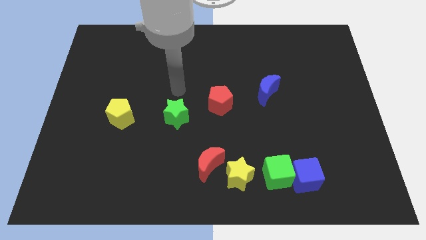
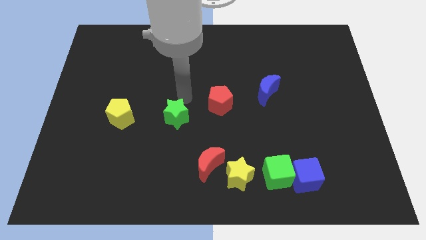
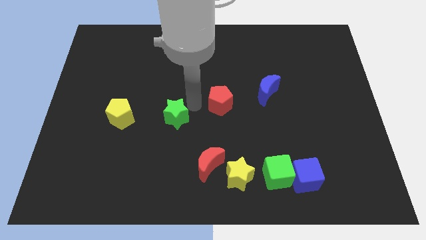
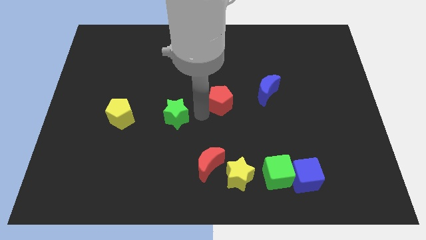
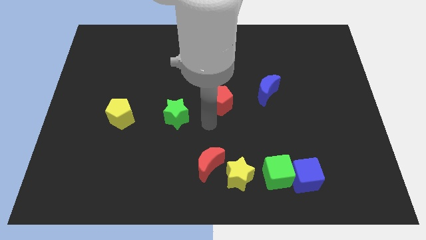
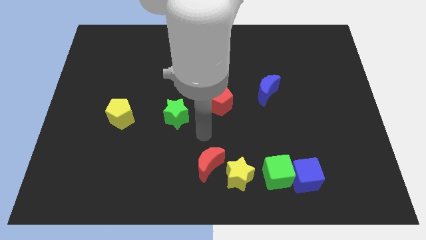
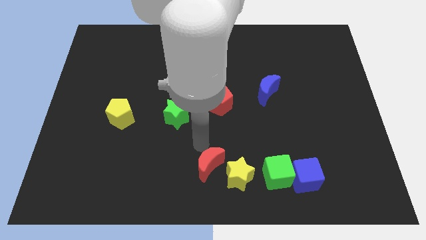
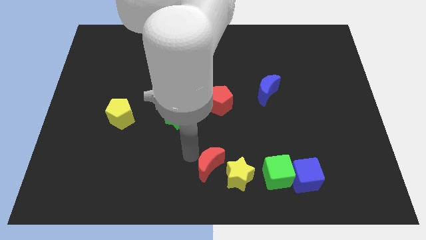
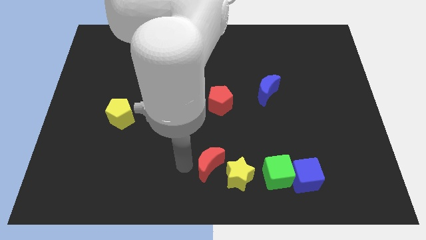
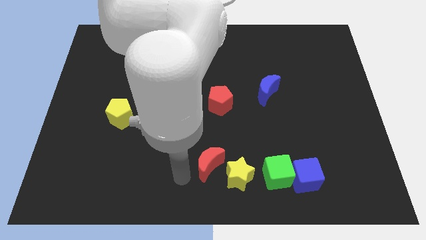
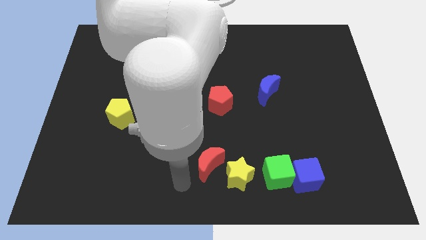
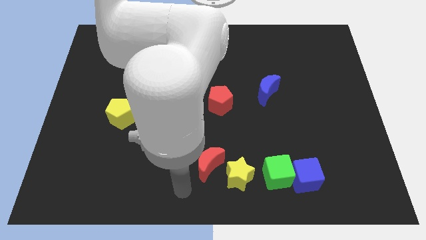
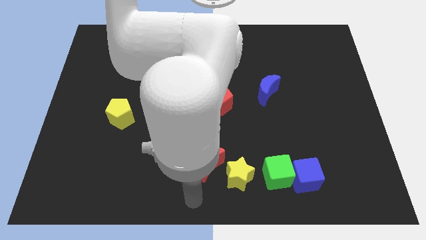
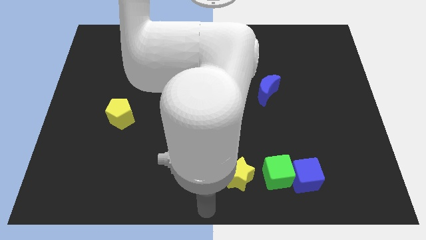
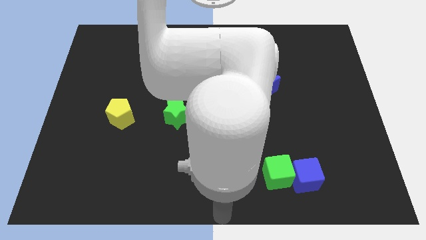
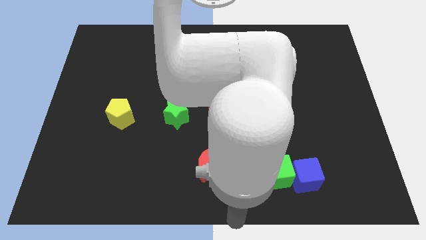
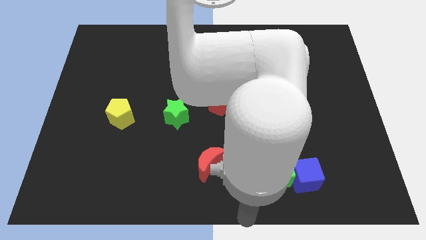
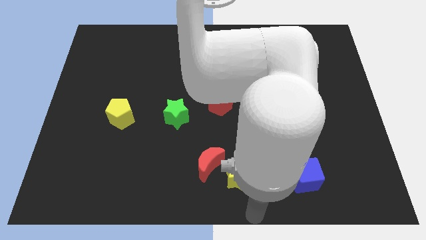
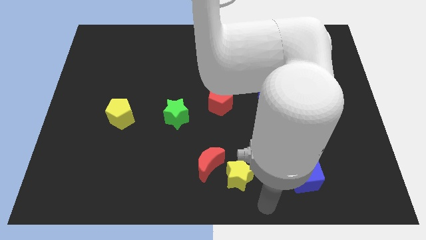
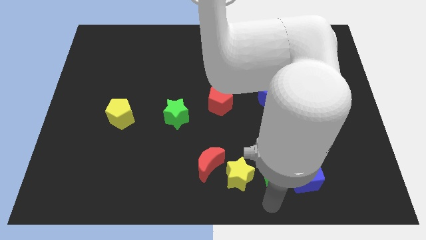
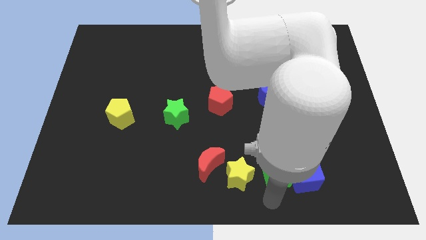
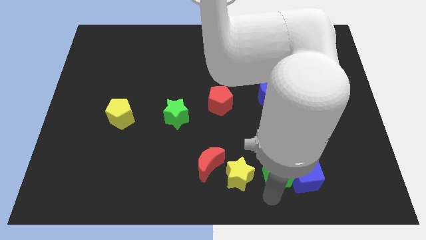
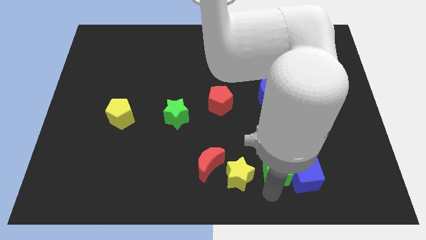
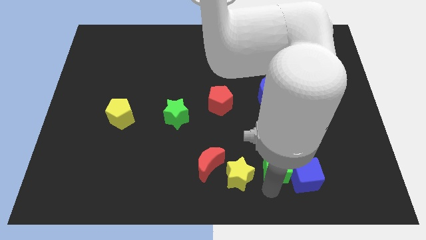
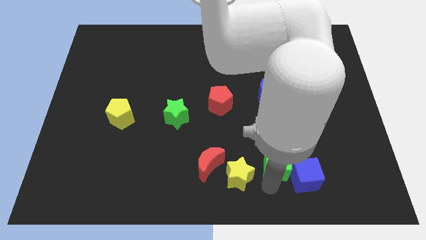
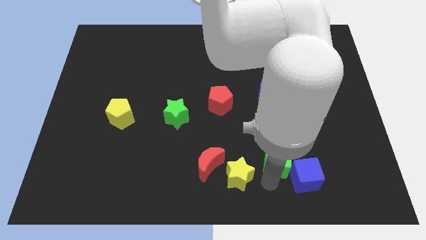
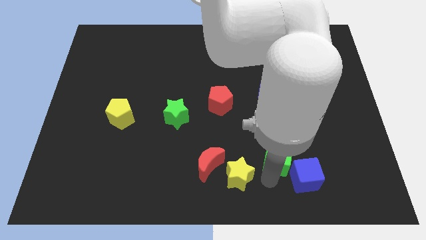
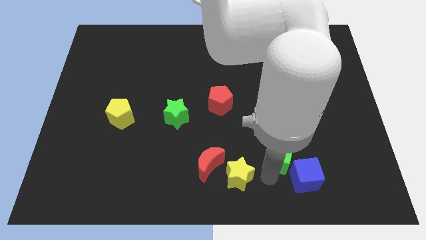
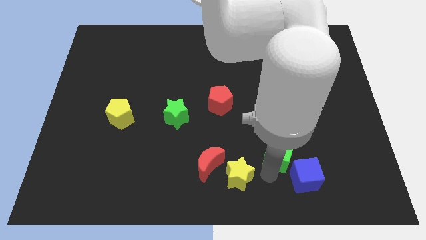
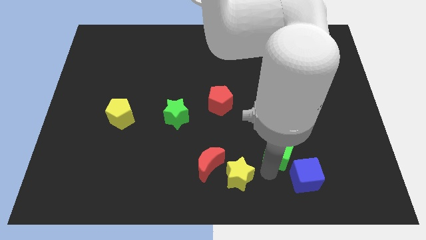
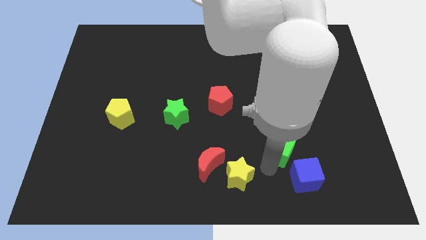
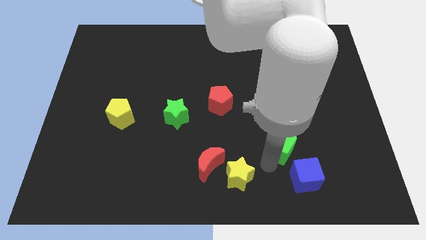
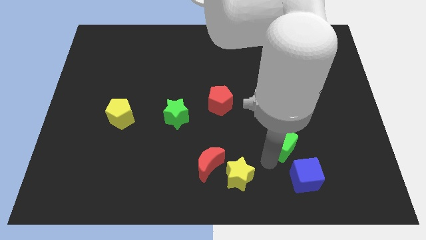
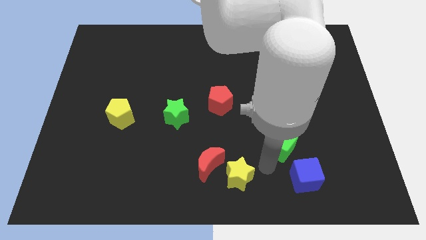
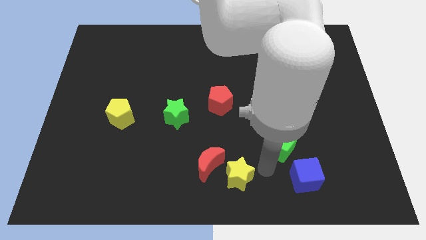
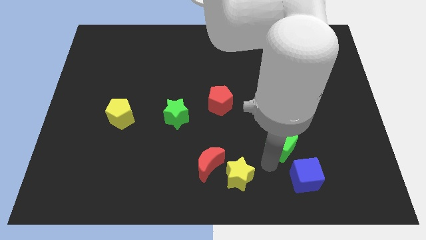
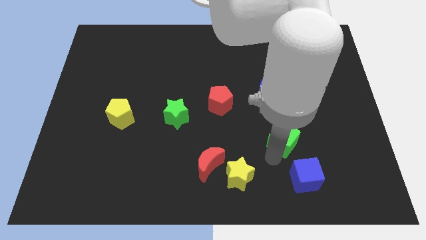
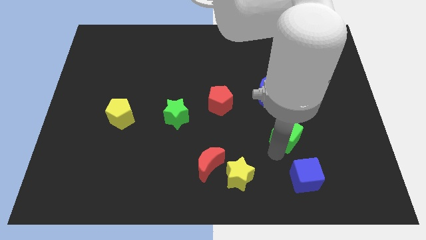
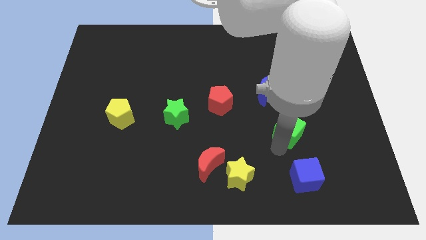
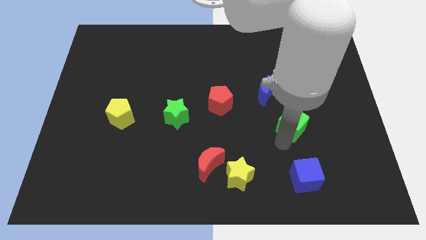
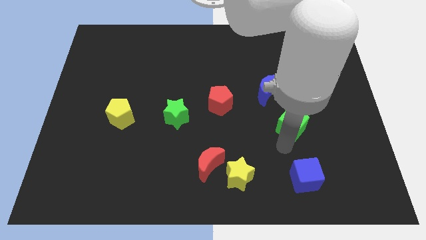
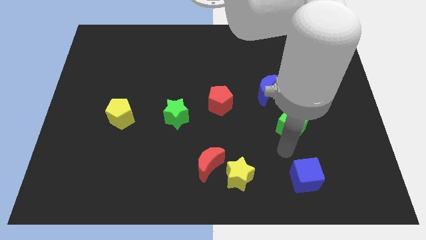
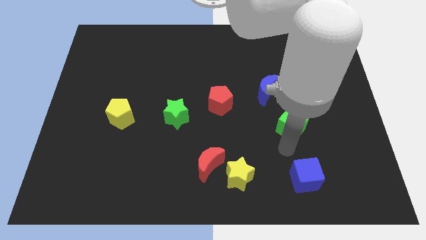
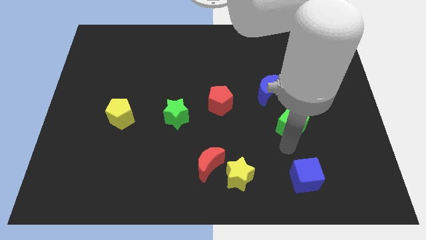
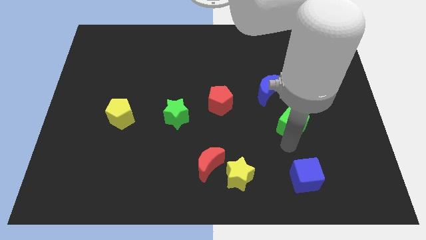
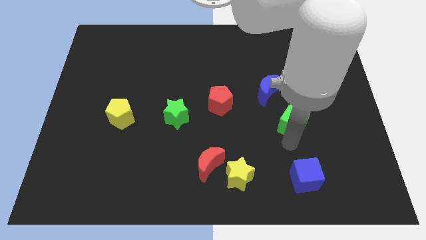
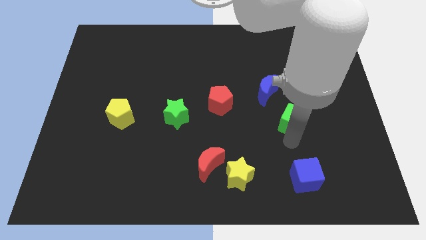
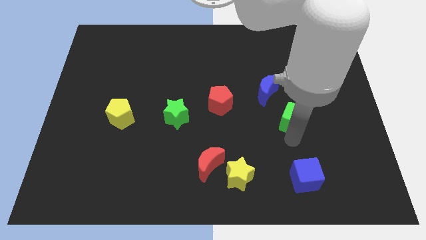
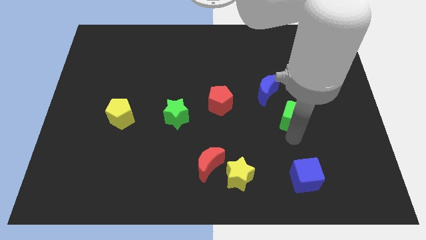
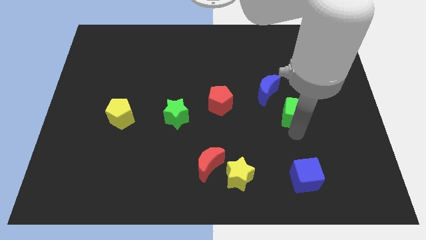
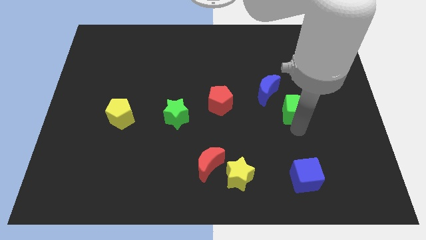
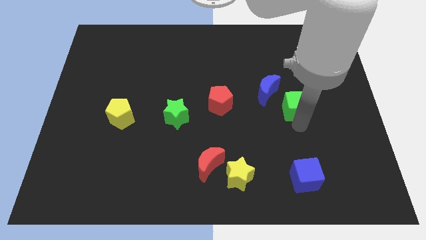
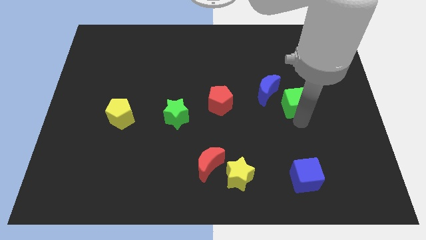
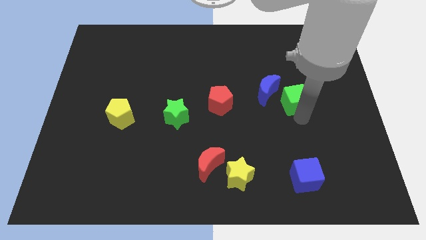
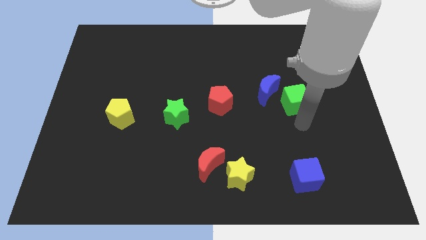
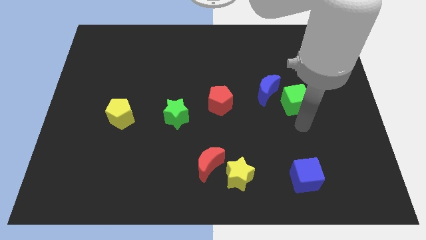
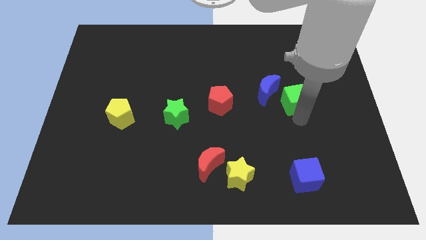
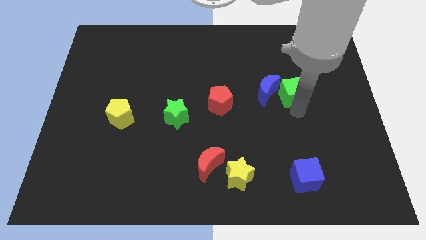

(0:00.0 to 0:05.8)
put the green cube to the top right side of the blue moon

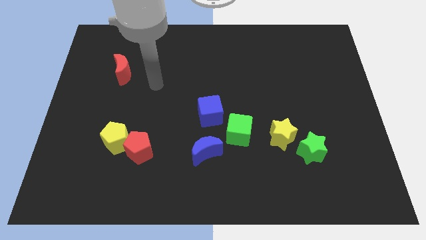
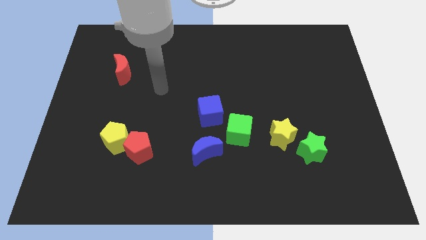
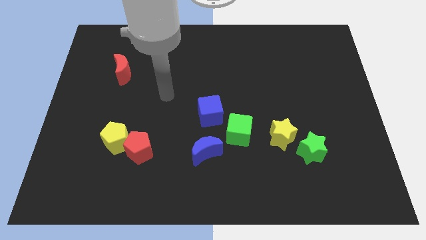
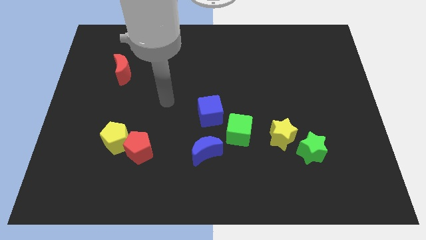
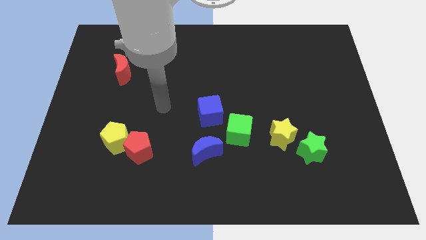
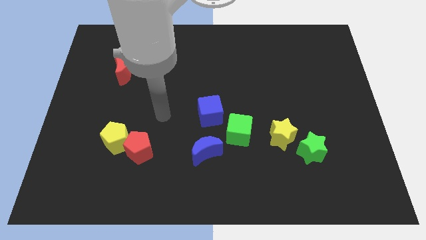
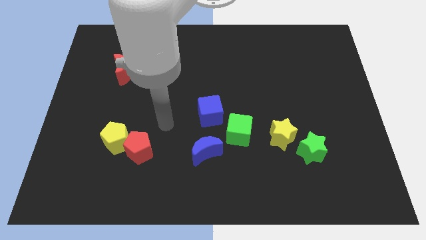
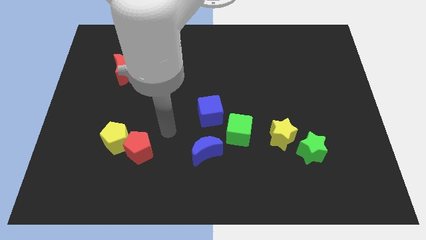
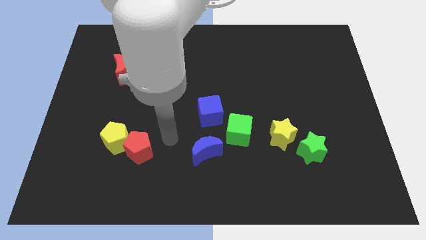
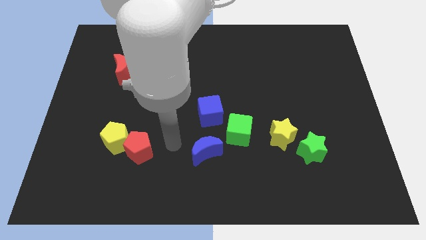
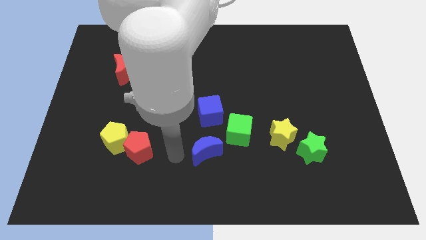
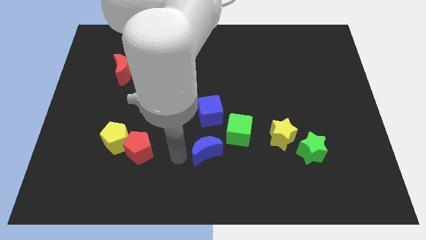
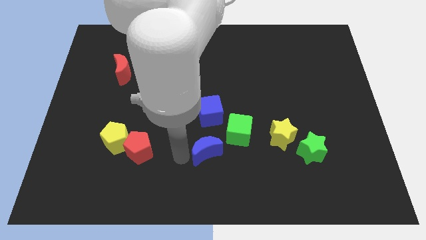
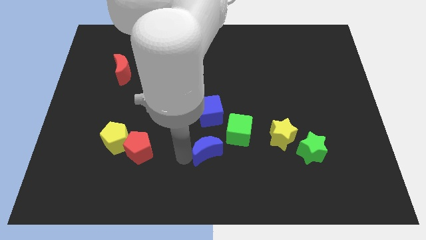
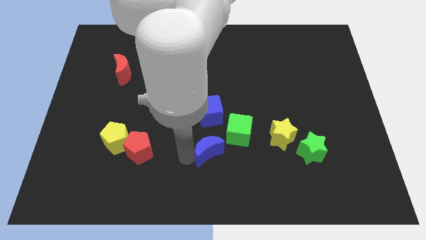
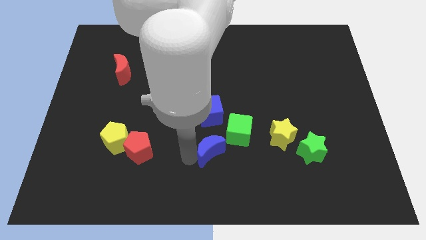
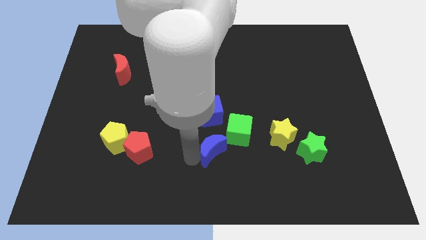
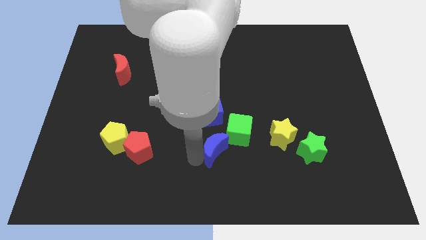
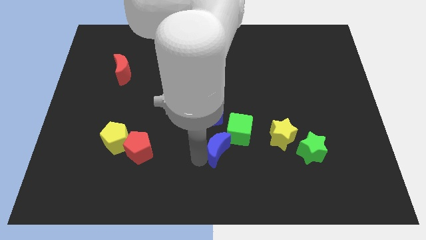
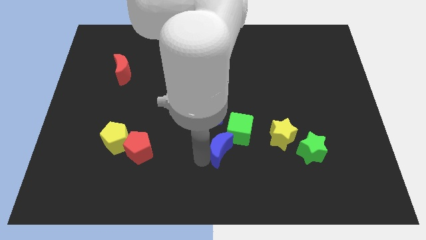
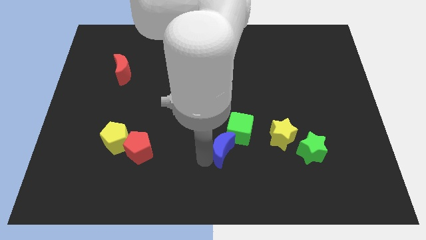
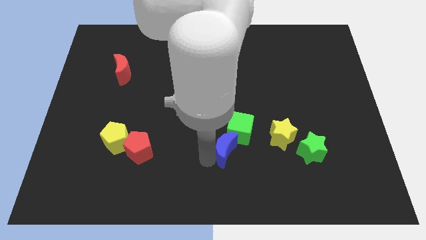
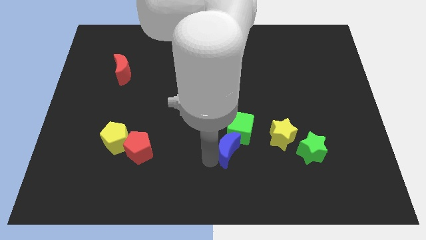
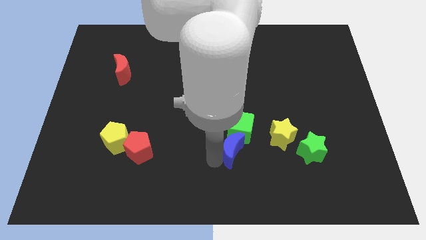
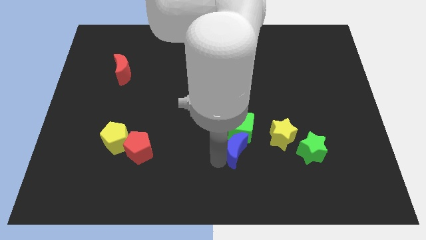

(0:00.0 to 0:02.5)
move the blue moon to the bottom right of the green cube
